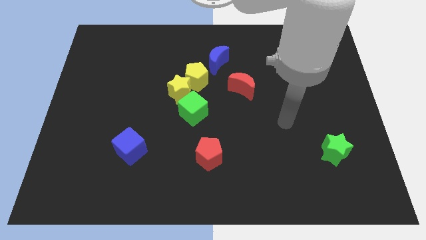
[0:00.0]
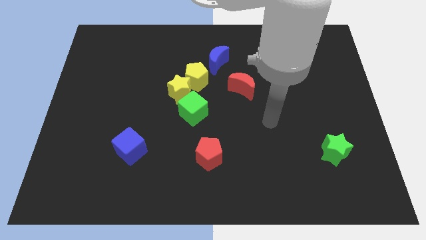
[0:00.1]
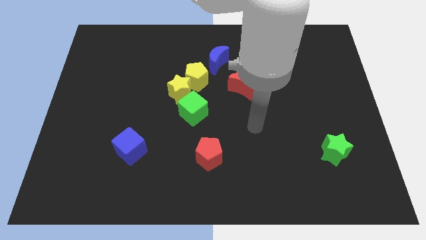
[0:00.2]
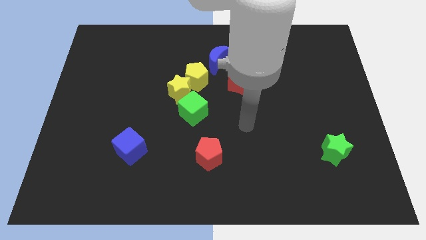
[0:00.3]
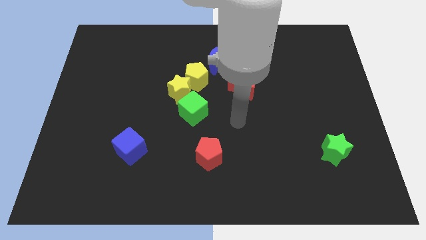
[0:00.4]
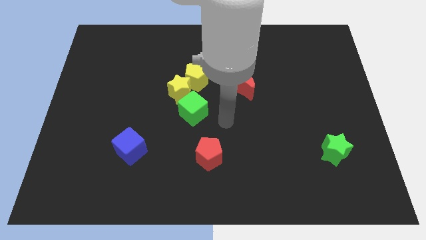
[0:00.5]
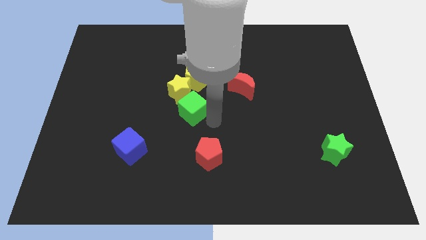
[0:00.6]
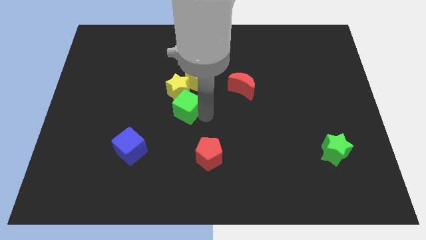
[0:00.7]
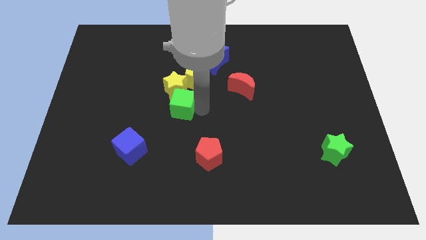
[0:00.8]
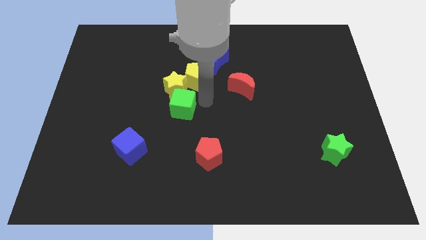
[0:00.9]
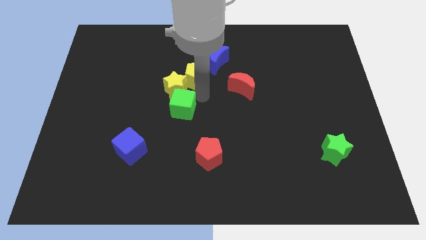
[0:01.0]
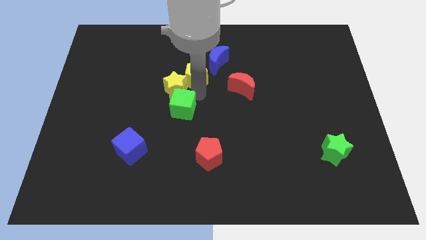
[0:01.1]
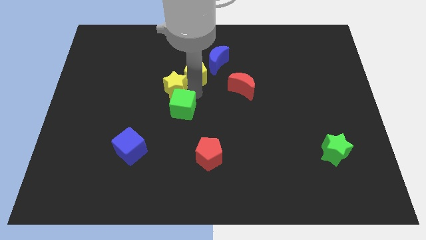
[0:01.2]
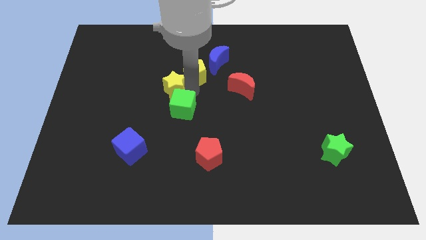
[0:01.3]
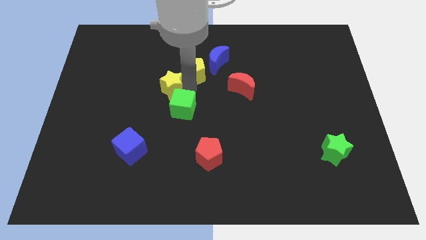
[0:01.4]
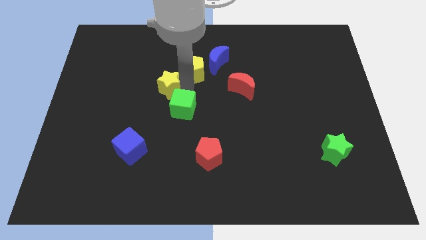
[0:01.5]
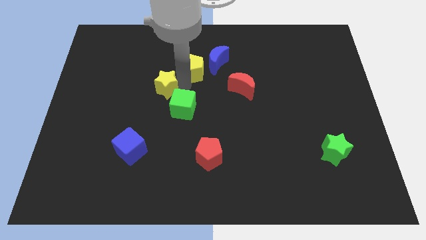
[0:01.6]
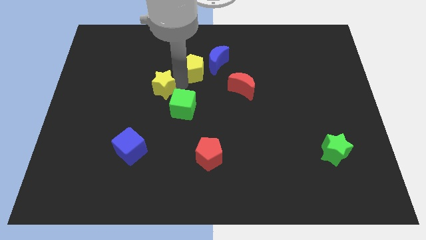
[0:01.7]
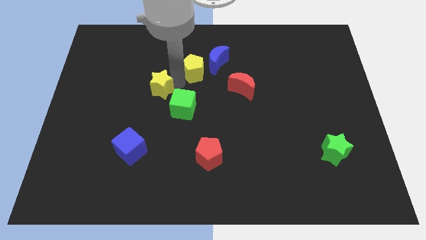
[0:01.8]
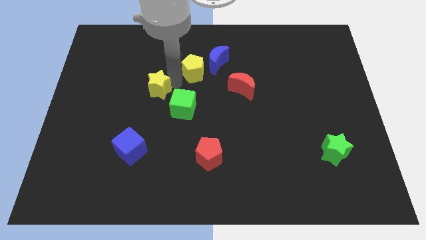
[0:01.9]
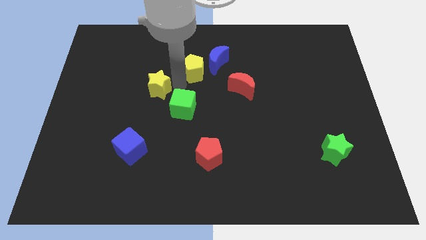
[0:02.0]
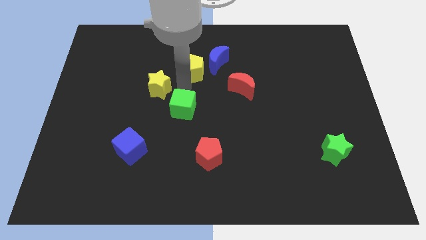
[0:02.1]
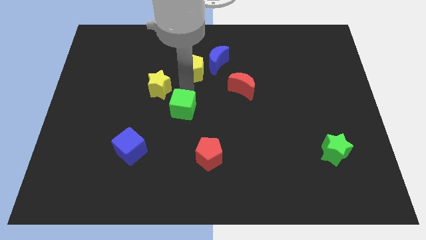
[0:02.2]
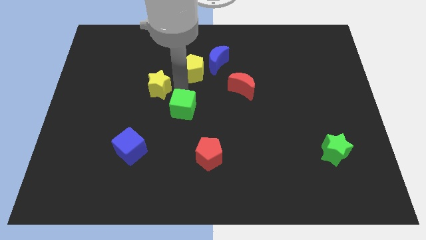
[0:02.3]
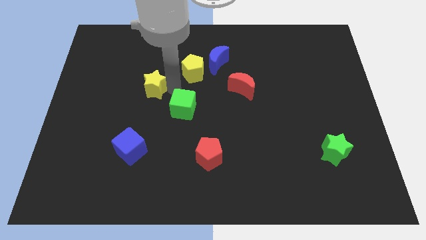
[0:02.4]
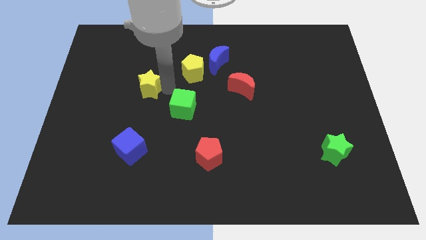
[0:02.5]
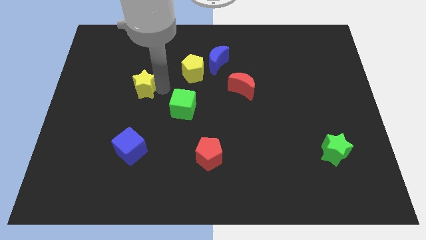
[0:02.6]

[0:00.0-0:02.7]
pull the yellow star apart from the yellow pentagon and green cube

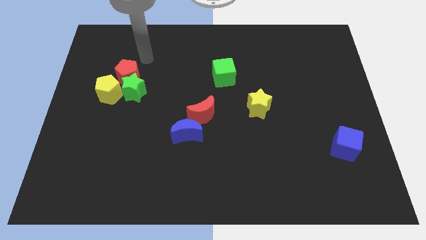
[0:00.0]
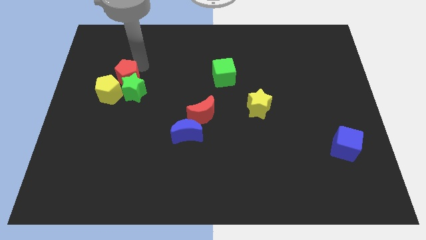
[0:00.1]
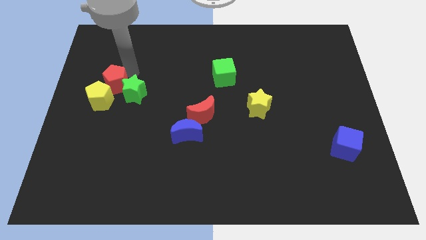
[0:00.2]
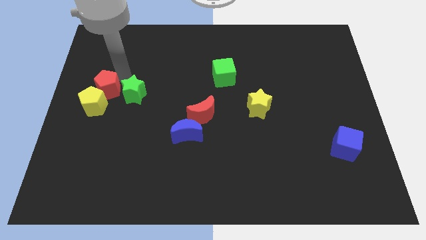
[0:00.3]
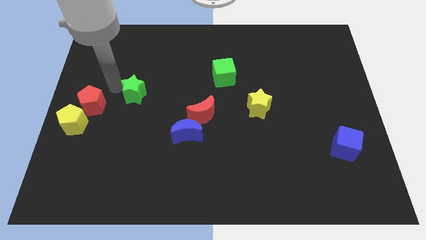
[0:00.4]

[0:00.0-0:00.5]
move the green star away from the red pentagon and yellow pentagon

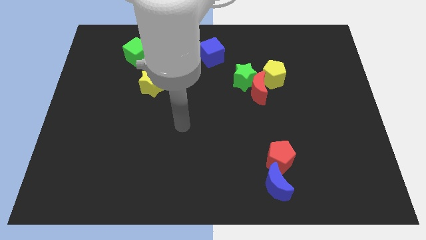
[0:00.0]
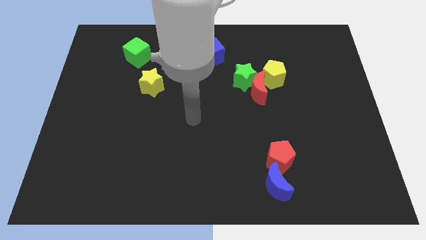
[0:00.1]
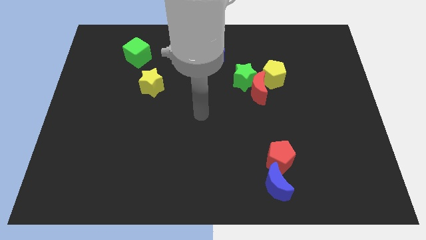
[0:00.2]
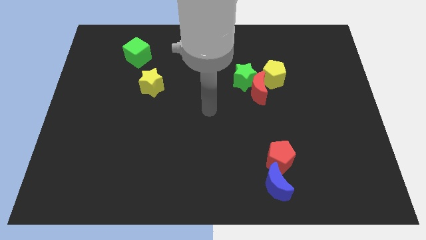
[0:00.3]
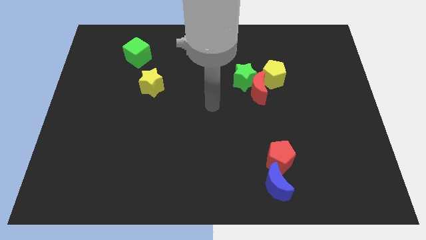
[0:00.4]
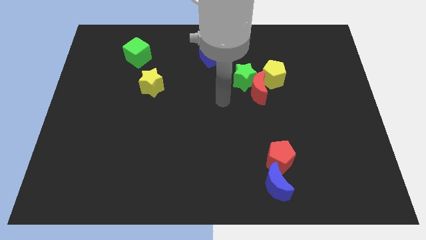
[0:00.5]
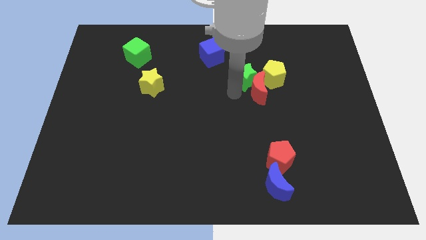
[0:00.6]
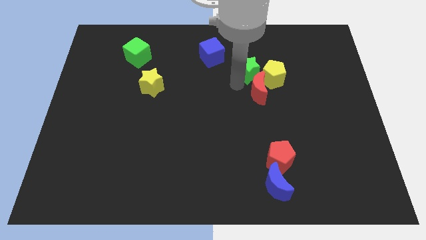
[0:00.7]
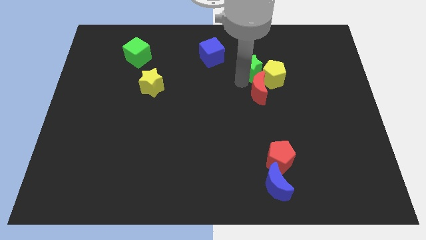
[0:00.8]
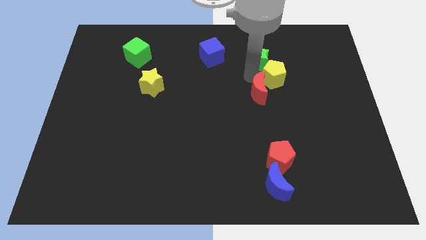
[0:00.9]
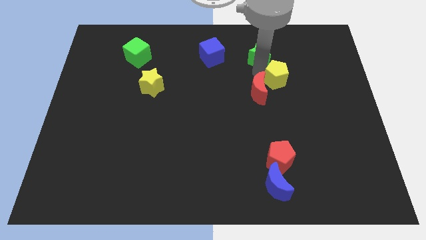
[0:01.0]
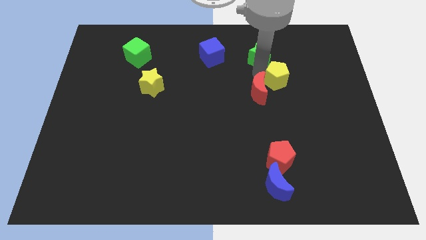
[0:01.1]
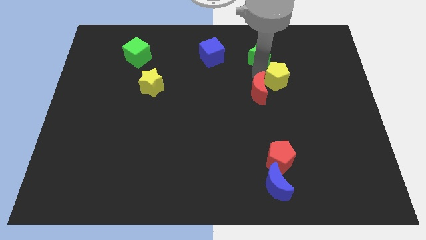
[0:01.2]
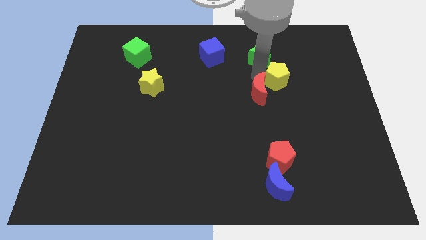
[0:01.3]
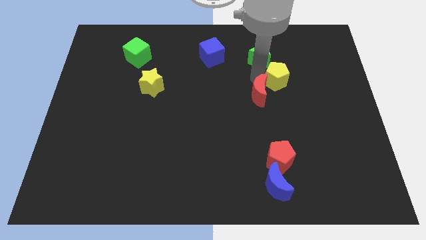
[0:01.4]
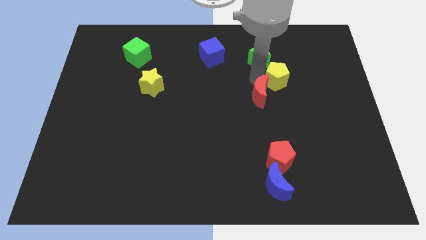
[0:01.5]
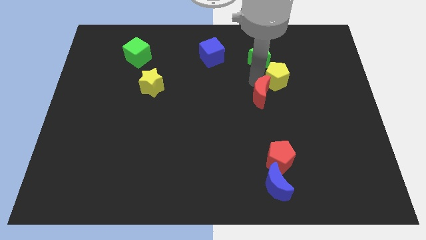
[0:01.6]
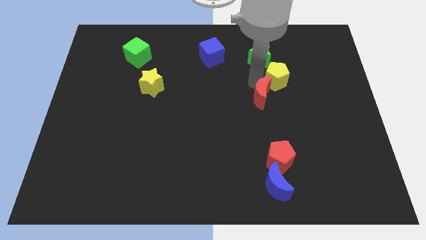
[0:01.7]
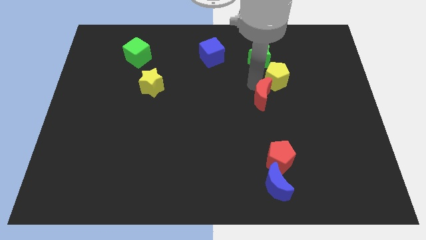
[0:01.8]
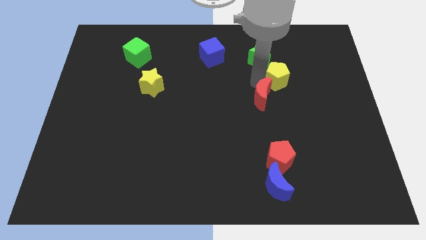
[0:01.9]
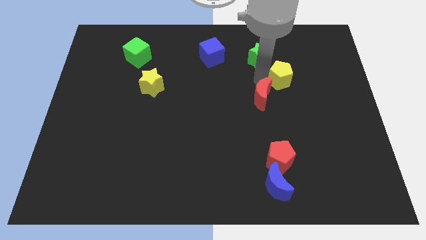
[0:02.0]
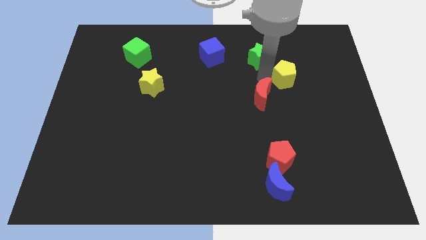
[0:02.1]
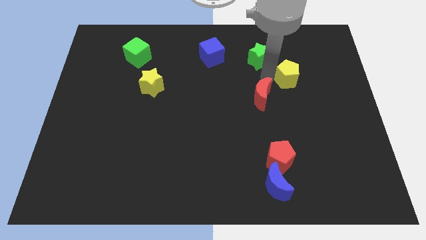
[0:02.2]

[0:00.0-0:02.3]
move the red moon away from the green star and yellow pentagon

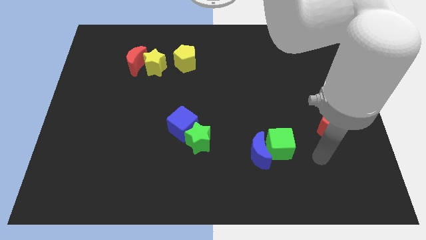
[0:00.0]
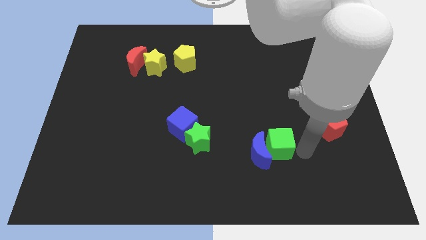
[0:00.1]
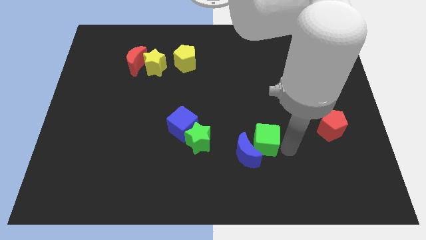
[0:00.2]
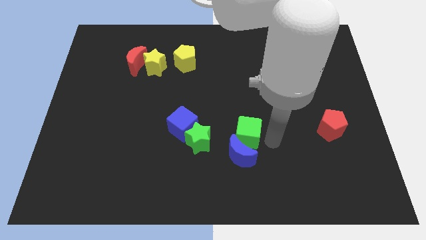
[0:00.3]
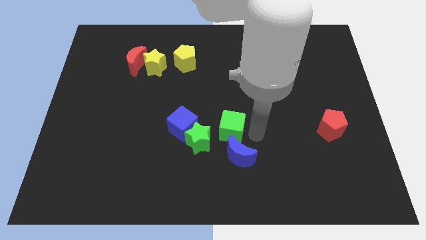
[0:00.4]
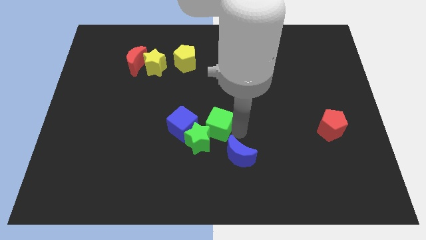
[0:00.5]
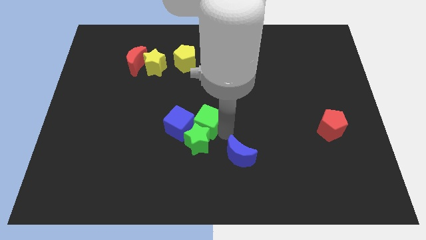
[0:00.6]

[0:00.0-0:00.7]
pull the blue moon apart from the green cube

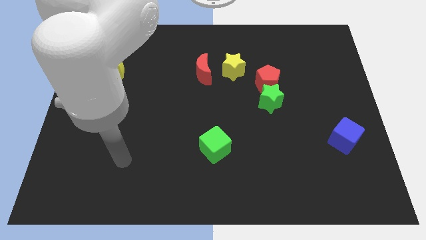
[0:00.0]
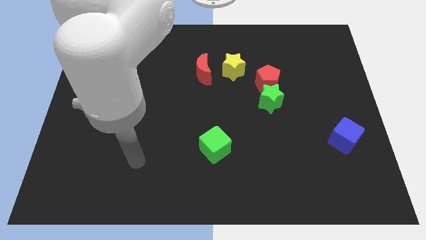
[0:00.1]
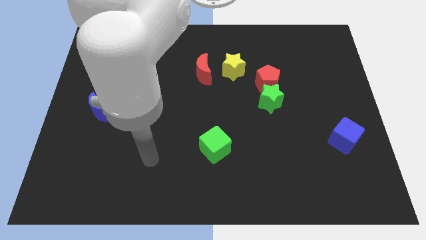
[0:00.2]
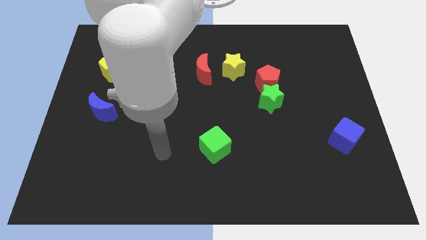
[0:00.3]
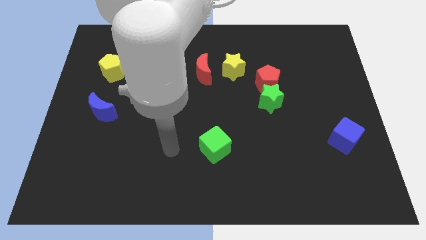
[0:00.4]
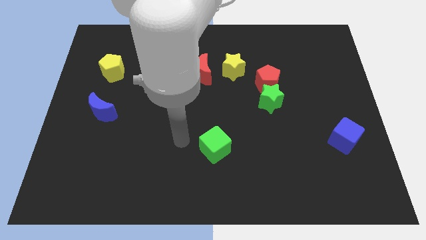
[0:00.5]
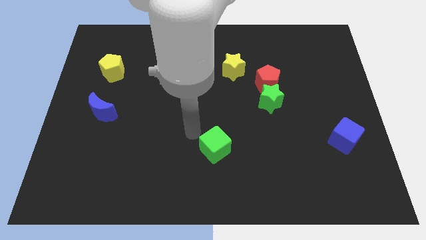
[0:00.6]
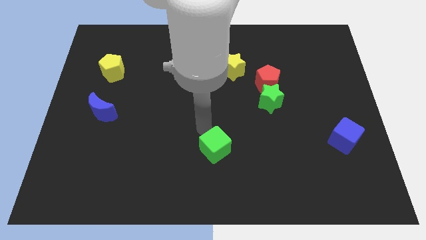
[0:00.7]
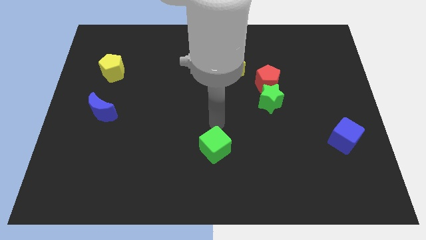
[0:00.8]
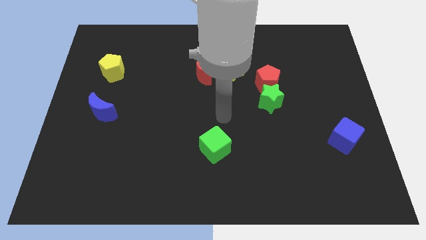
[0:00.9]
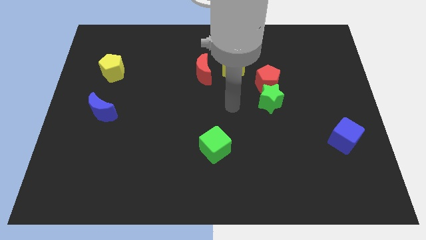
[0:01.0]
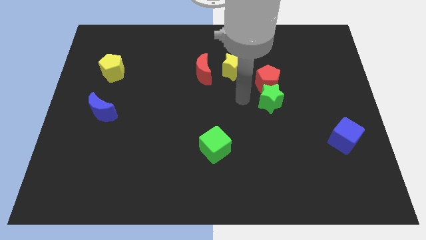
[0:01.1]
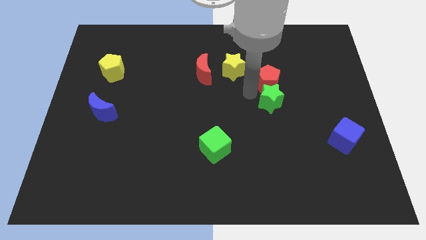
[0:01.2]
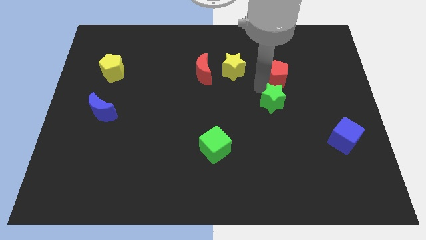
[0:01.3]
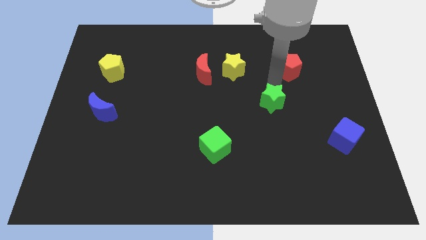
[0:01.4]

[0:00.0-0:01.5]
move the green star away from the red pentagon

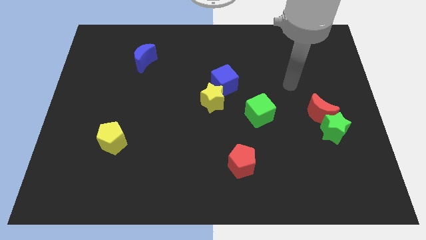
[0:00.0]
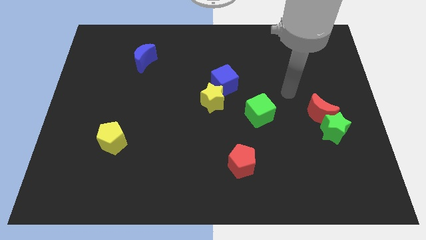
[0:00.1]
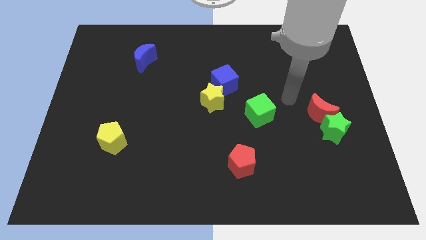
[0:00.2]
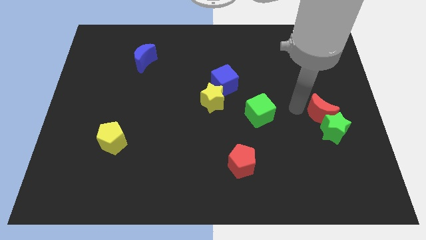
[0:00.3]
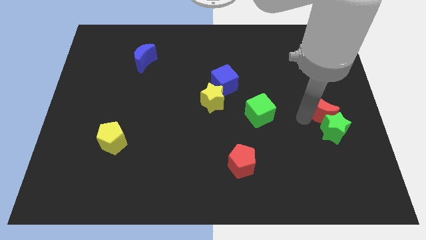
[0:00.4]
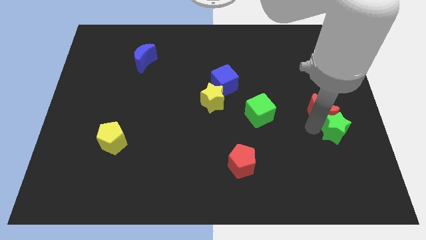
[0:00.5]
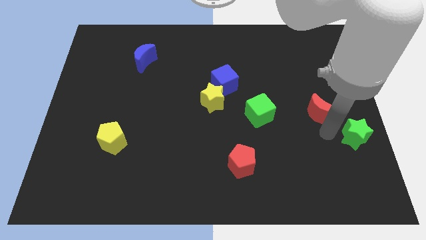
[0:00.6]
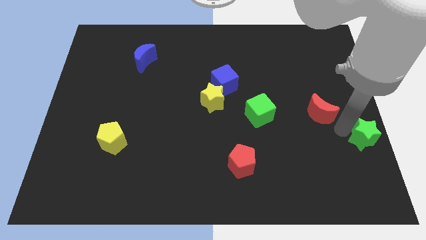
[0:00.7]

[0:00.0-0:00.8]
separate the red moon from the green star

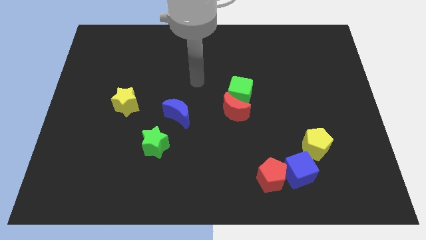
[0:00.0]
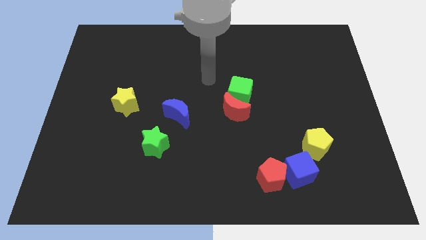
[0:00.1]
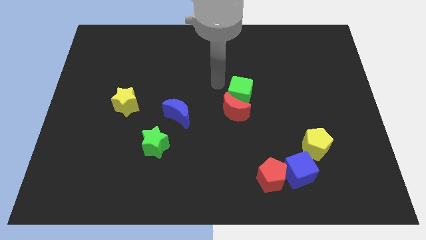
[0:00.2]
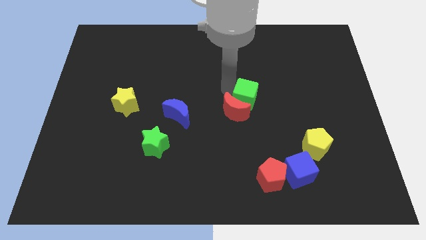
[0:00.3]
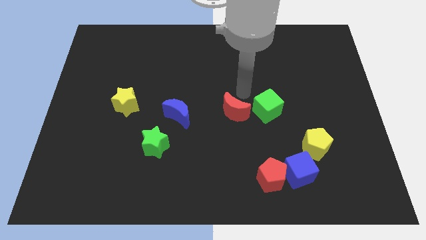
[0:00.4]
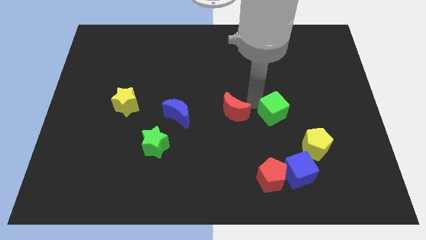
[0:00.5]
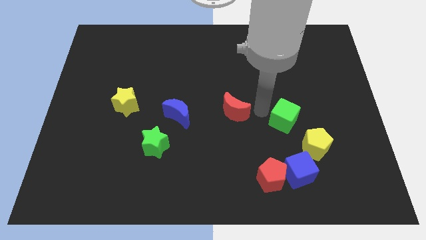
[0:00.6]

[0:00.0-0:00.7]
pull the red moon apart from the green cube
